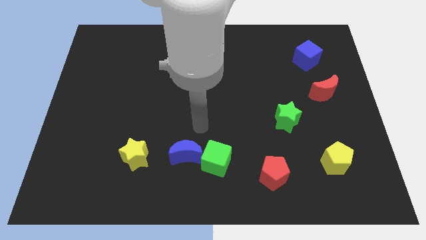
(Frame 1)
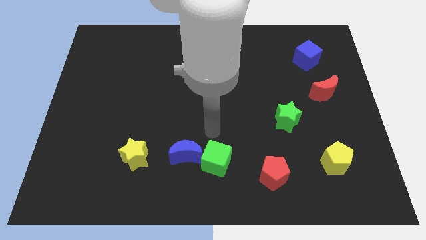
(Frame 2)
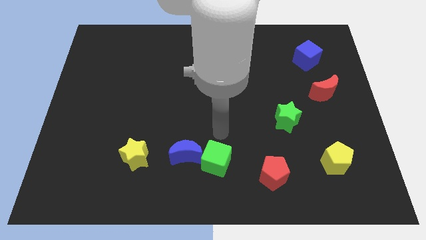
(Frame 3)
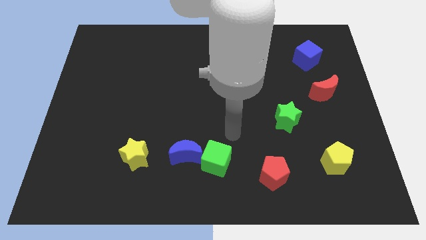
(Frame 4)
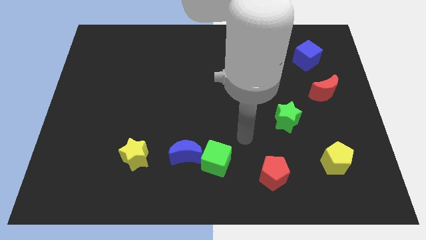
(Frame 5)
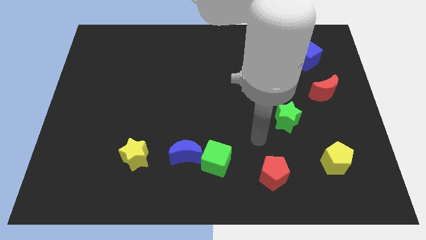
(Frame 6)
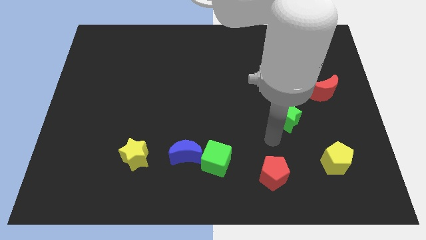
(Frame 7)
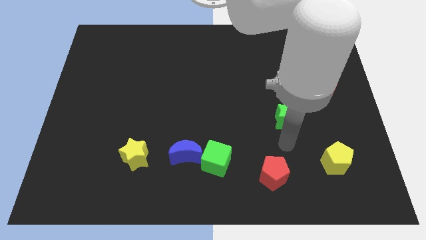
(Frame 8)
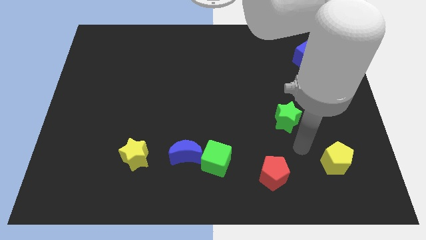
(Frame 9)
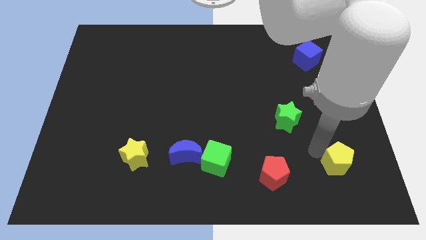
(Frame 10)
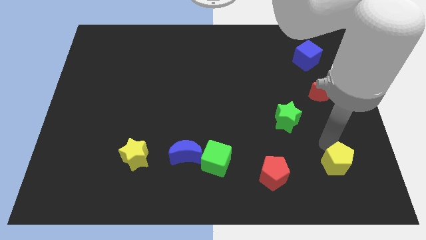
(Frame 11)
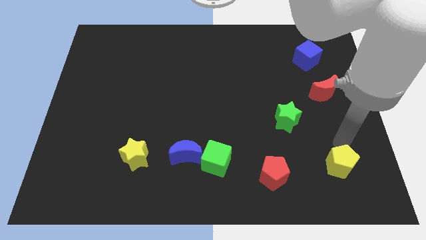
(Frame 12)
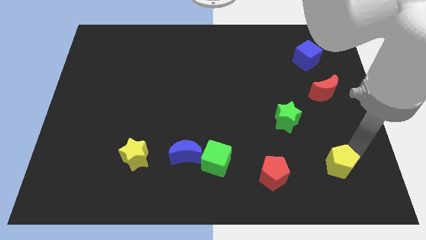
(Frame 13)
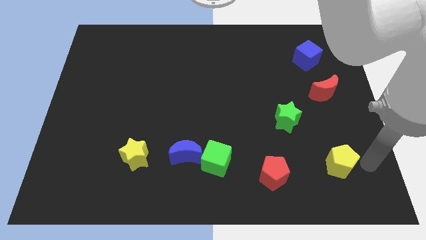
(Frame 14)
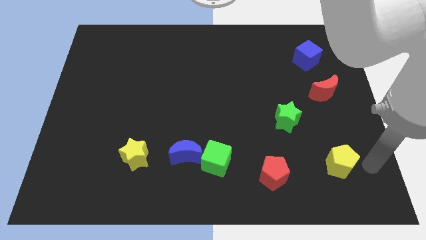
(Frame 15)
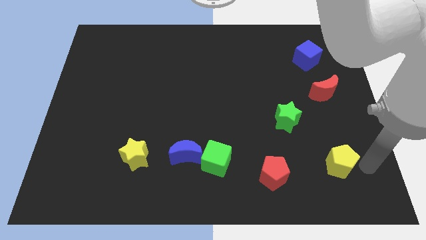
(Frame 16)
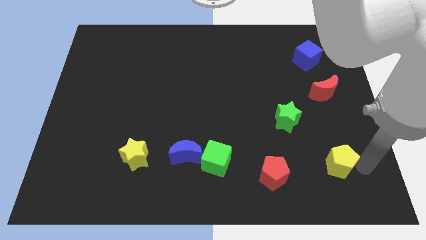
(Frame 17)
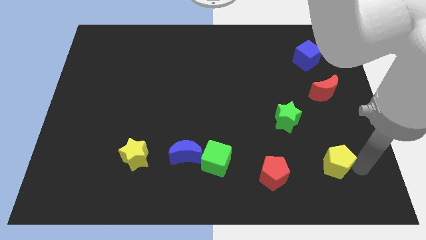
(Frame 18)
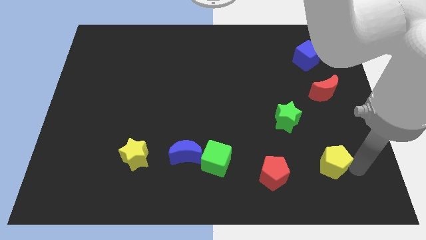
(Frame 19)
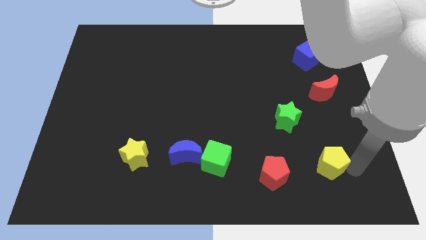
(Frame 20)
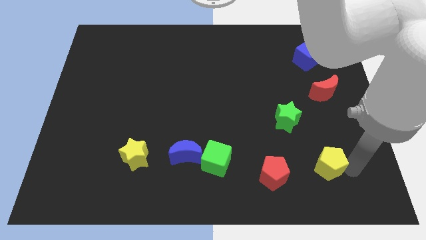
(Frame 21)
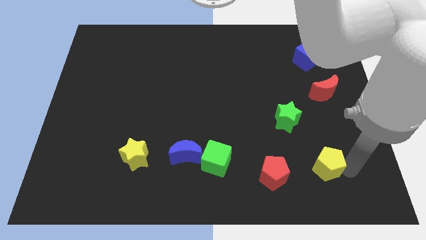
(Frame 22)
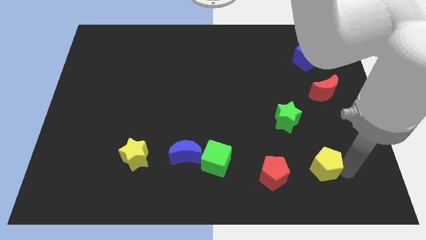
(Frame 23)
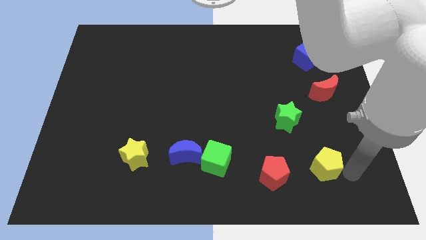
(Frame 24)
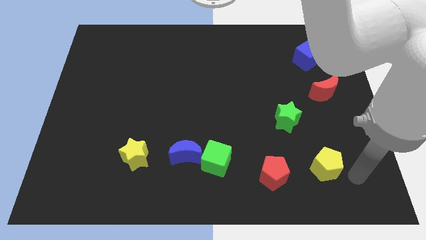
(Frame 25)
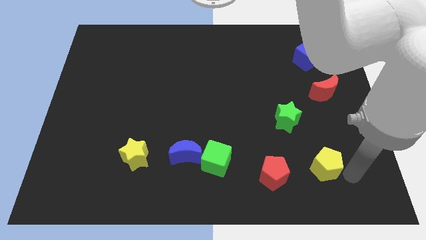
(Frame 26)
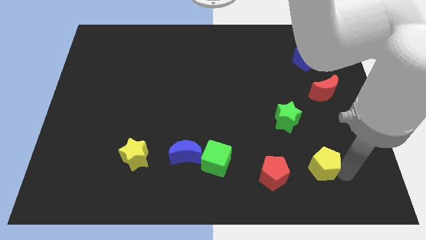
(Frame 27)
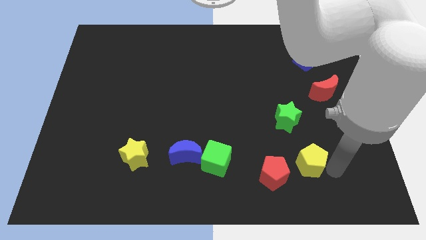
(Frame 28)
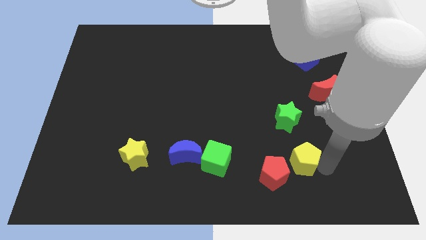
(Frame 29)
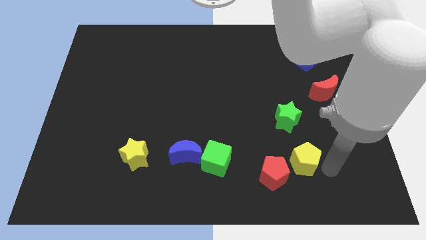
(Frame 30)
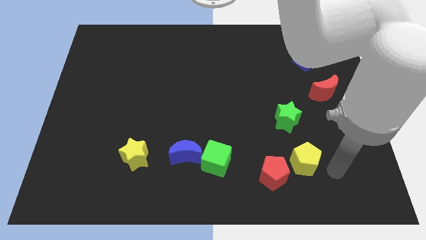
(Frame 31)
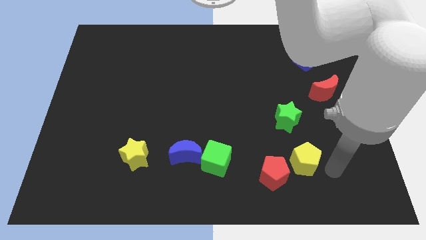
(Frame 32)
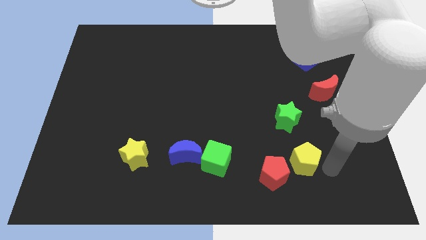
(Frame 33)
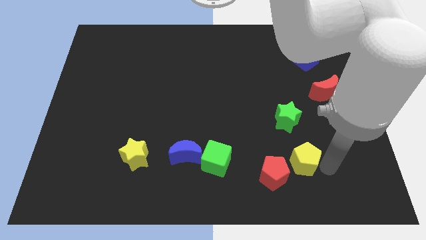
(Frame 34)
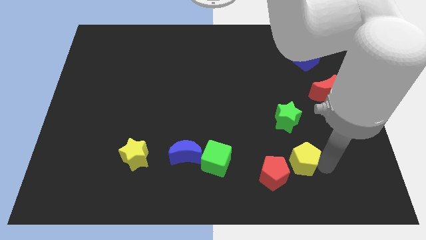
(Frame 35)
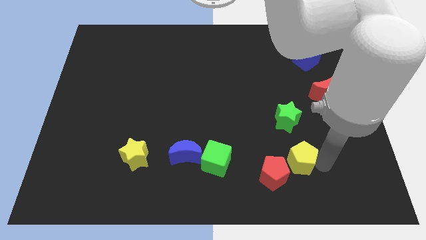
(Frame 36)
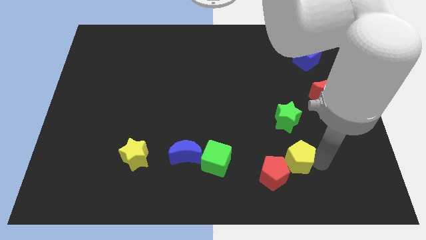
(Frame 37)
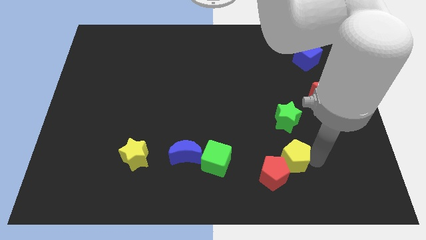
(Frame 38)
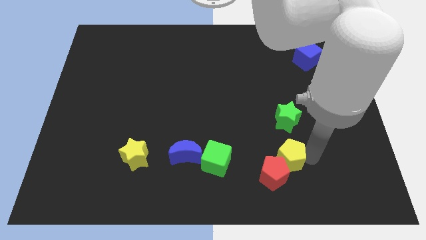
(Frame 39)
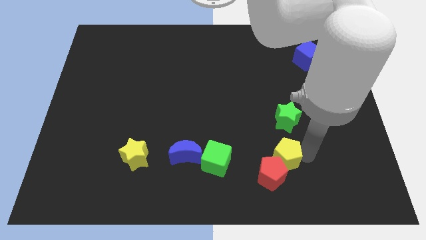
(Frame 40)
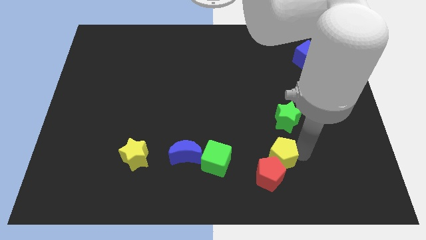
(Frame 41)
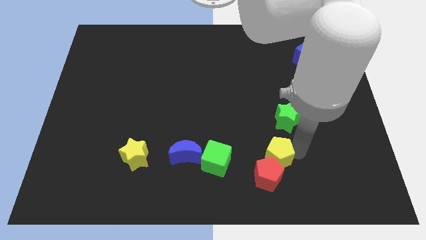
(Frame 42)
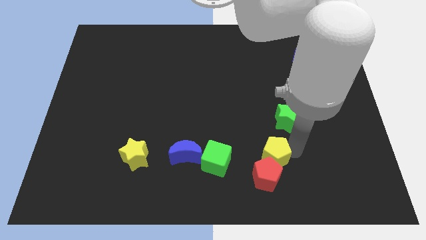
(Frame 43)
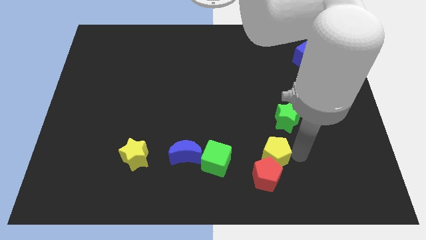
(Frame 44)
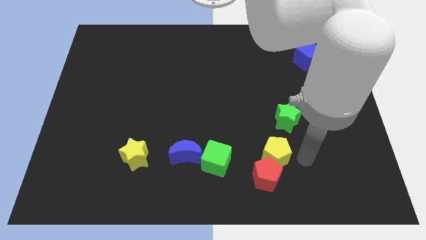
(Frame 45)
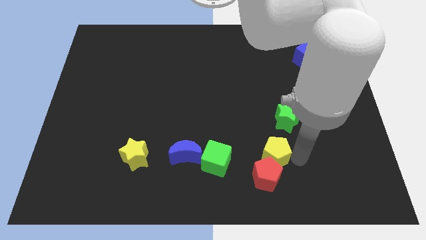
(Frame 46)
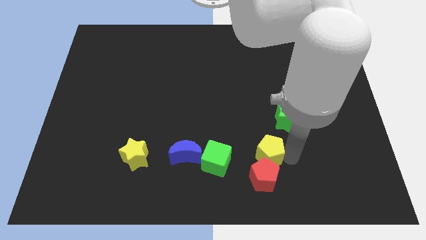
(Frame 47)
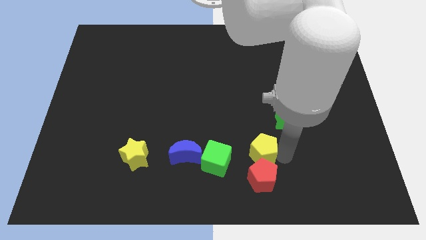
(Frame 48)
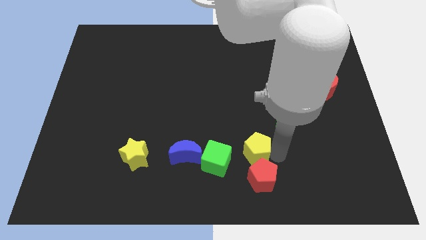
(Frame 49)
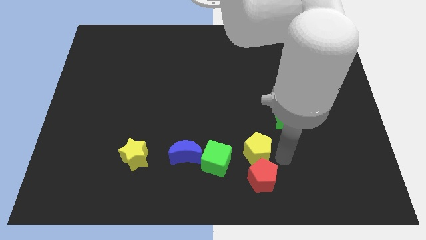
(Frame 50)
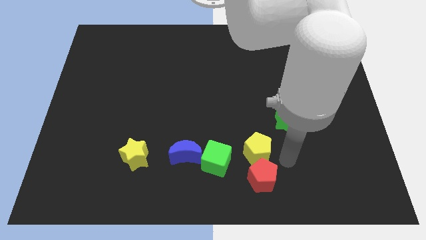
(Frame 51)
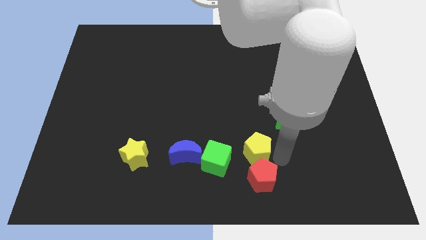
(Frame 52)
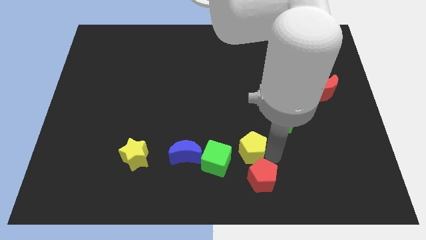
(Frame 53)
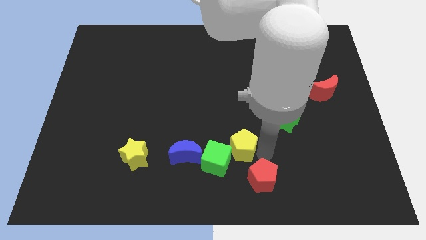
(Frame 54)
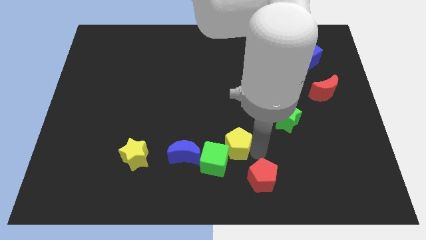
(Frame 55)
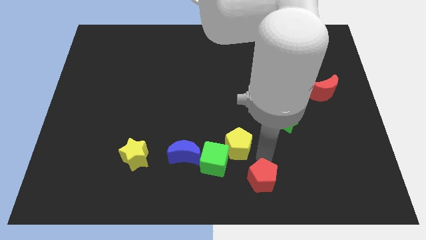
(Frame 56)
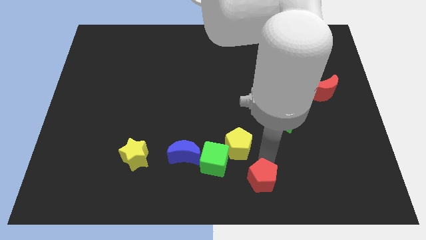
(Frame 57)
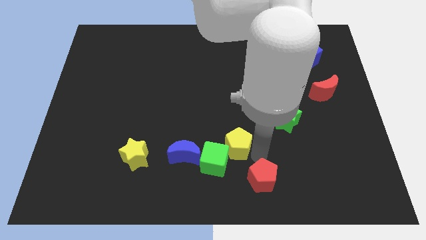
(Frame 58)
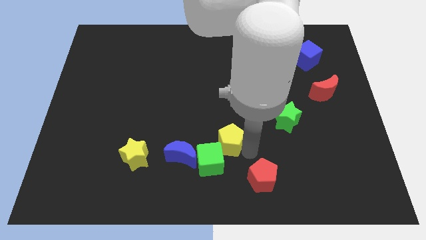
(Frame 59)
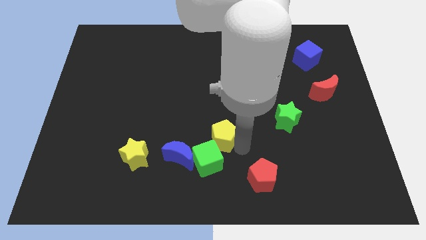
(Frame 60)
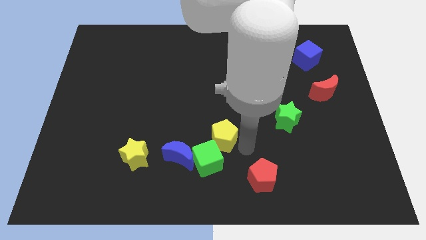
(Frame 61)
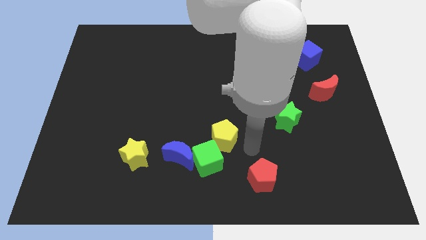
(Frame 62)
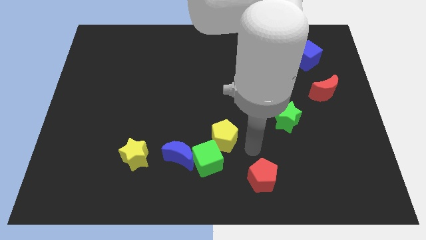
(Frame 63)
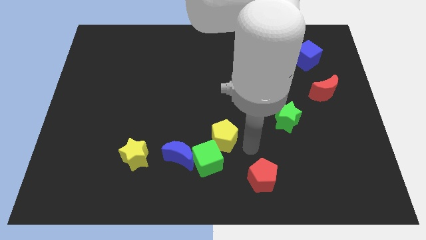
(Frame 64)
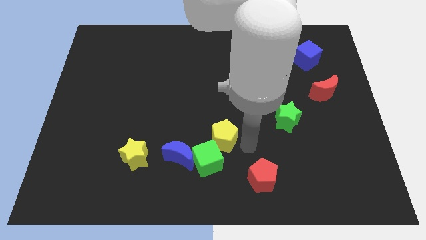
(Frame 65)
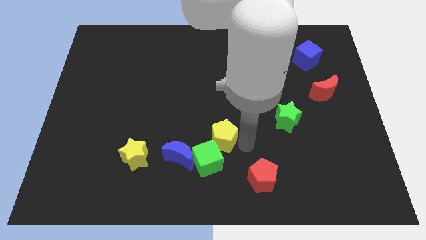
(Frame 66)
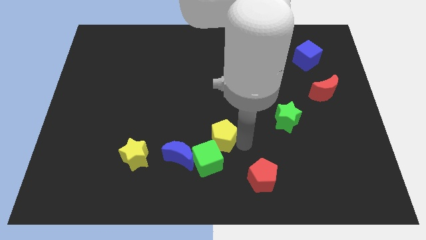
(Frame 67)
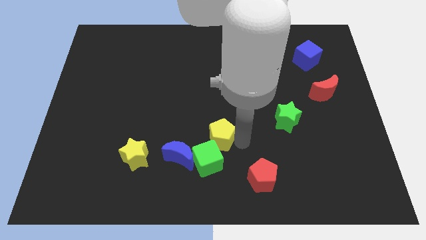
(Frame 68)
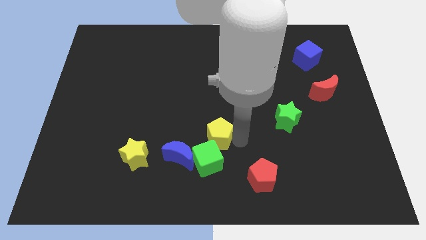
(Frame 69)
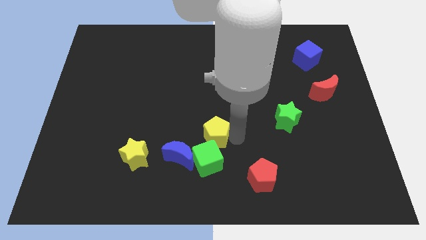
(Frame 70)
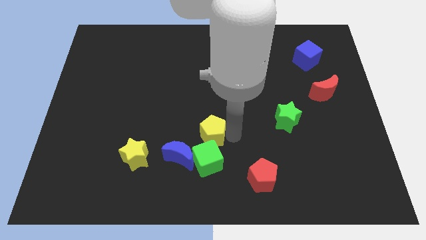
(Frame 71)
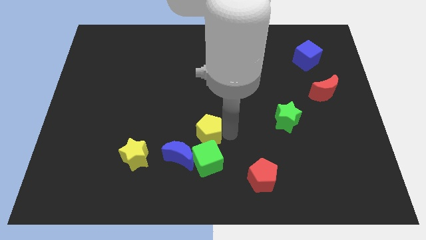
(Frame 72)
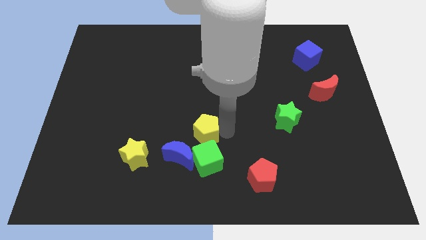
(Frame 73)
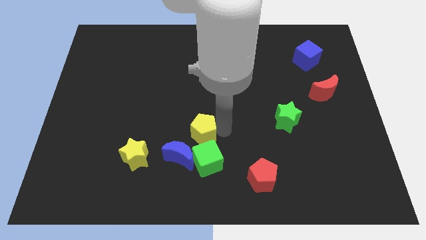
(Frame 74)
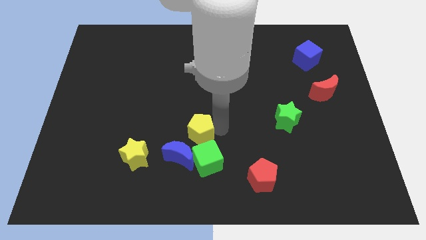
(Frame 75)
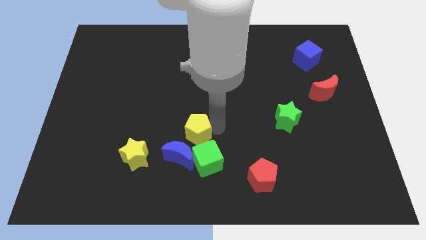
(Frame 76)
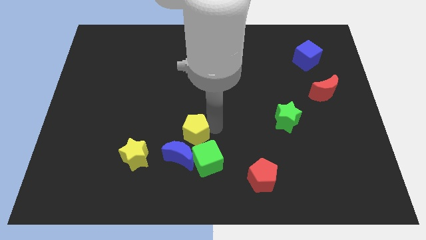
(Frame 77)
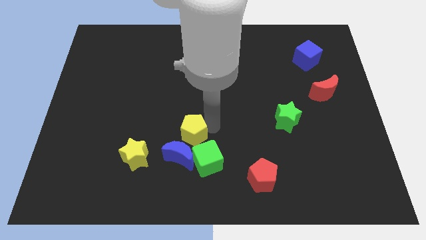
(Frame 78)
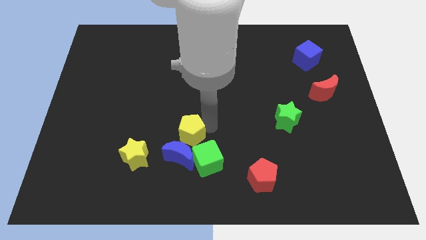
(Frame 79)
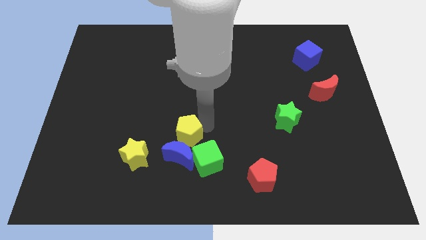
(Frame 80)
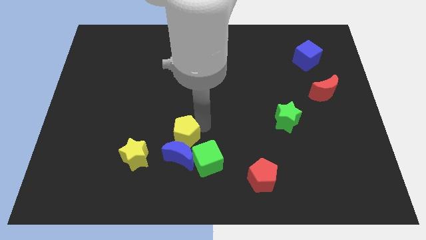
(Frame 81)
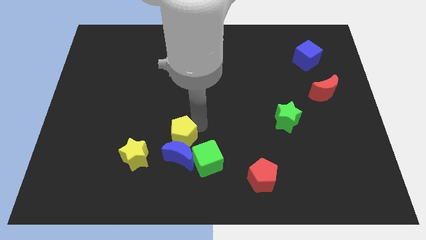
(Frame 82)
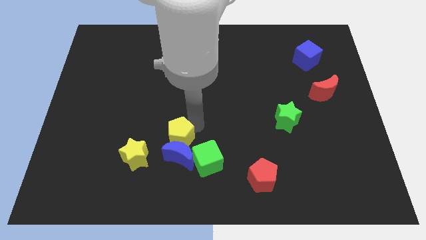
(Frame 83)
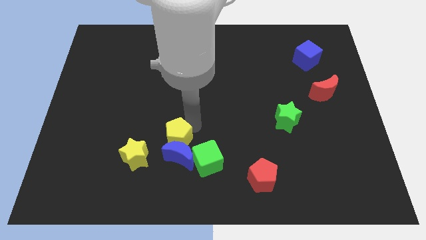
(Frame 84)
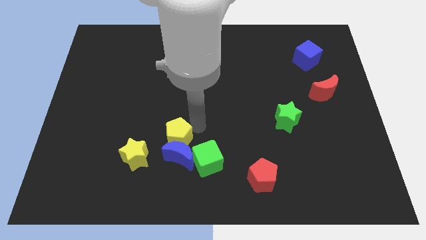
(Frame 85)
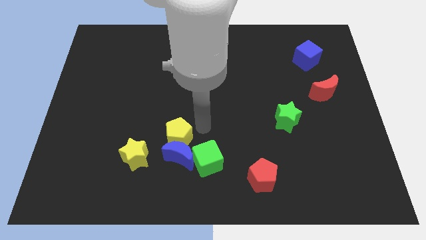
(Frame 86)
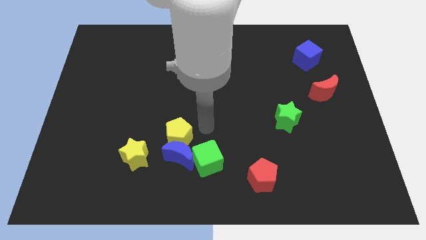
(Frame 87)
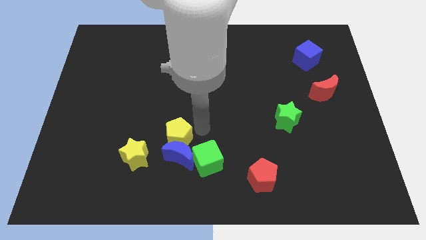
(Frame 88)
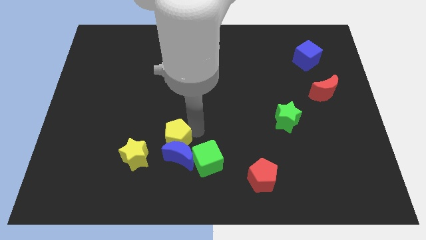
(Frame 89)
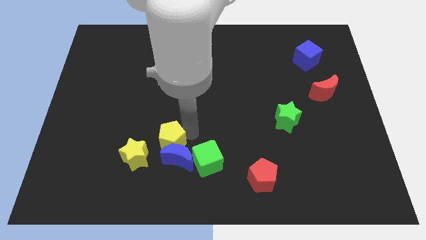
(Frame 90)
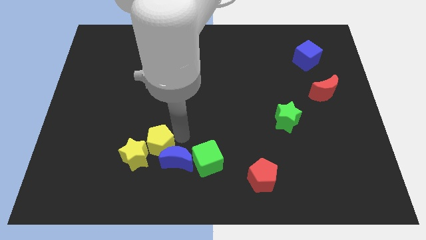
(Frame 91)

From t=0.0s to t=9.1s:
put the yellow pentagon towards the yellow star
